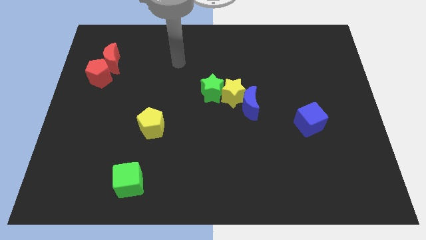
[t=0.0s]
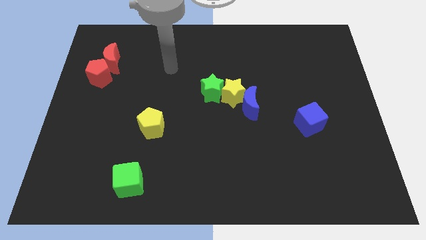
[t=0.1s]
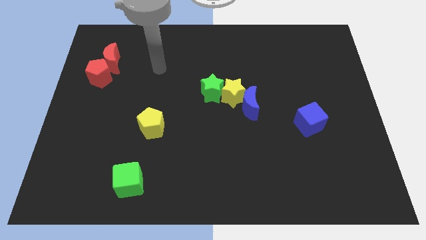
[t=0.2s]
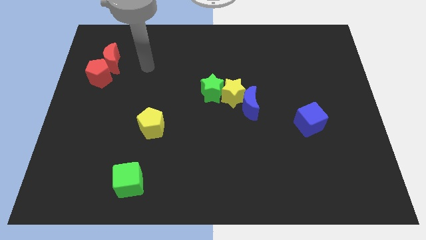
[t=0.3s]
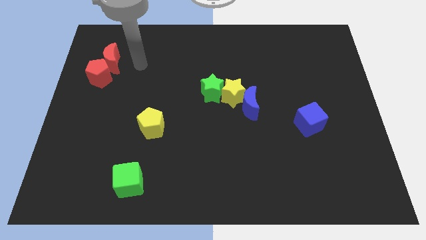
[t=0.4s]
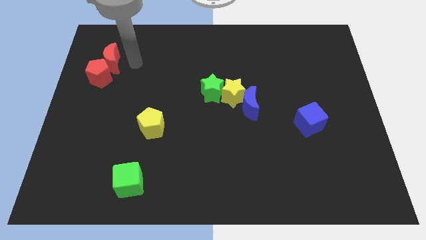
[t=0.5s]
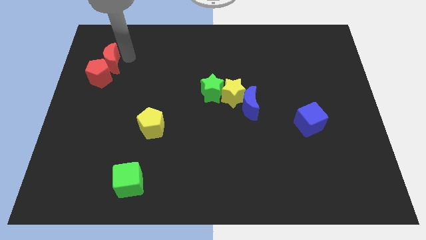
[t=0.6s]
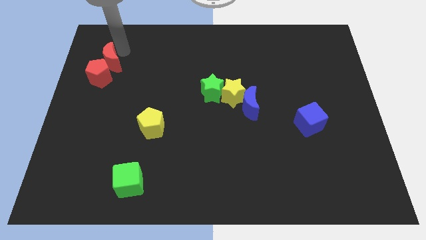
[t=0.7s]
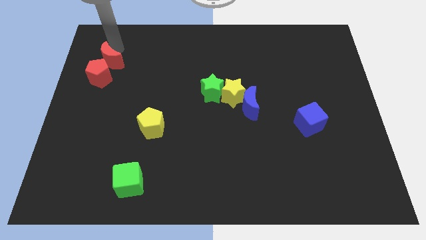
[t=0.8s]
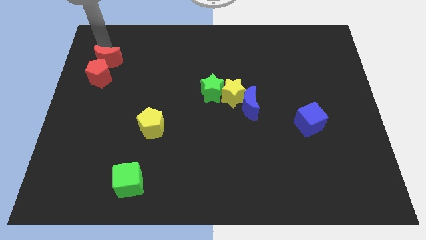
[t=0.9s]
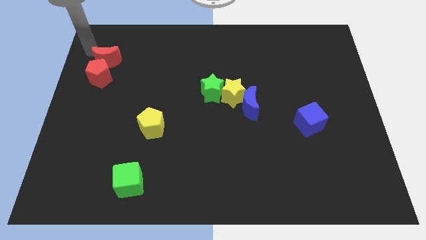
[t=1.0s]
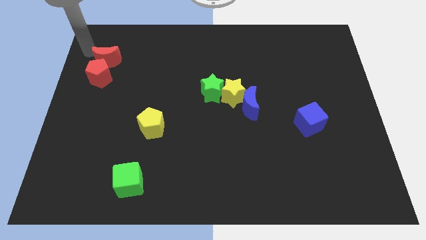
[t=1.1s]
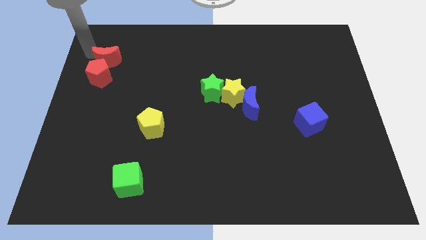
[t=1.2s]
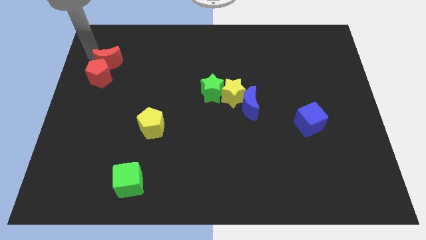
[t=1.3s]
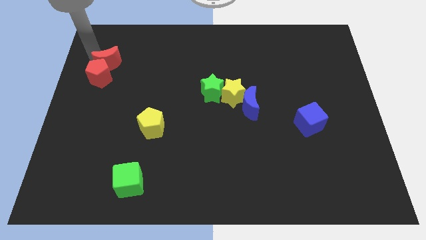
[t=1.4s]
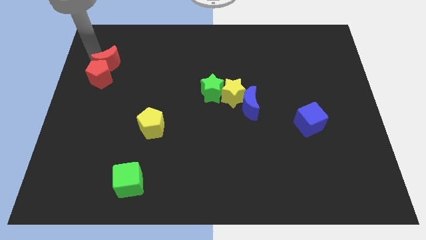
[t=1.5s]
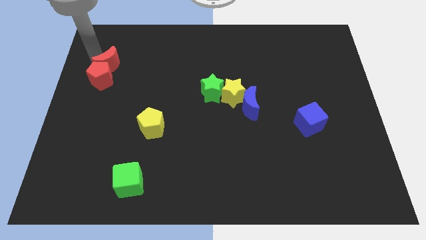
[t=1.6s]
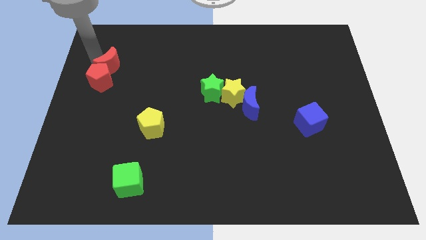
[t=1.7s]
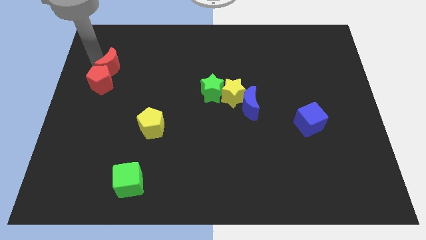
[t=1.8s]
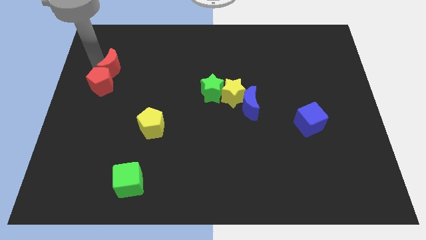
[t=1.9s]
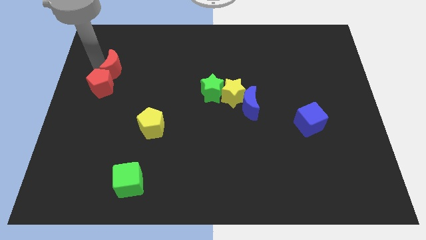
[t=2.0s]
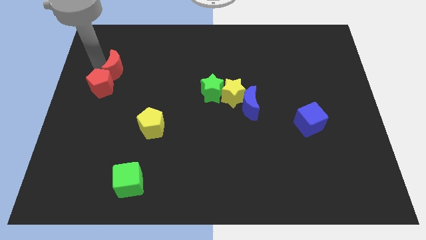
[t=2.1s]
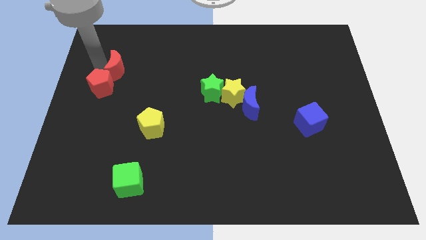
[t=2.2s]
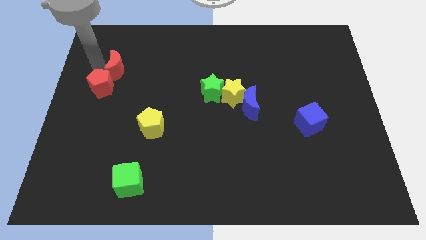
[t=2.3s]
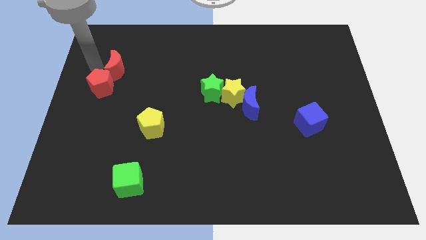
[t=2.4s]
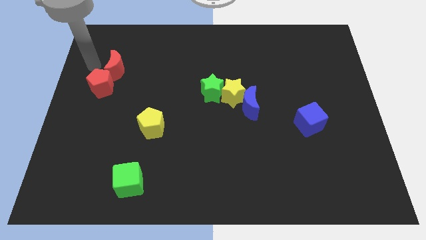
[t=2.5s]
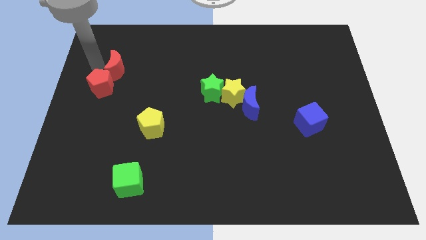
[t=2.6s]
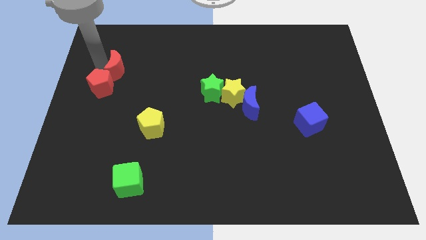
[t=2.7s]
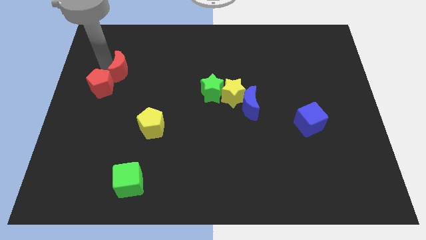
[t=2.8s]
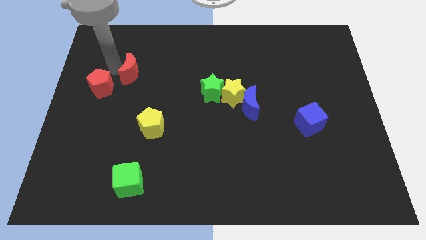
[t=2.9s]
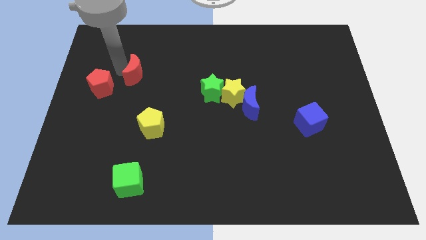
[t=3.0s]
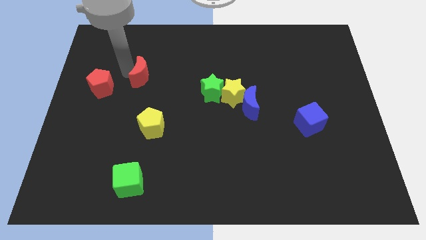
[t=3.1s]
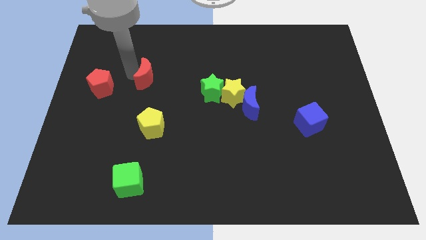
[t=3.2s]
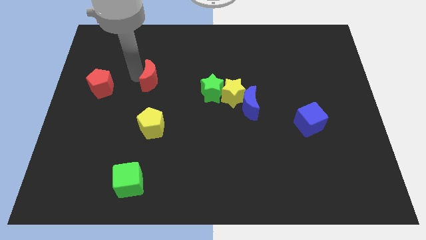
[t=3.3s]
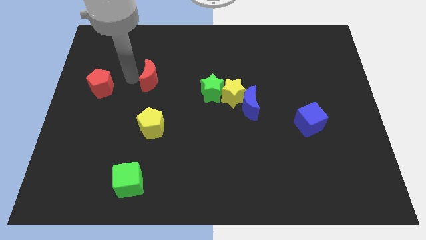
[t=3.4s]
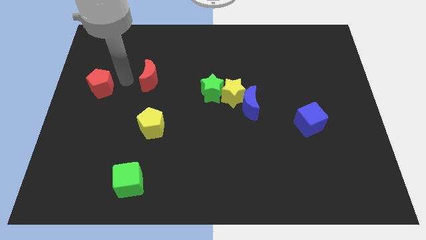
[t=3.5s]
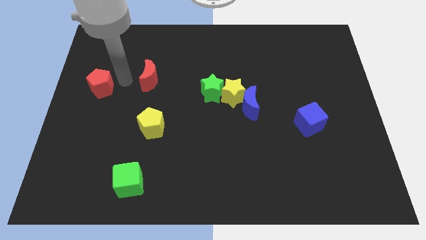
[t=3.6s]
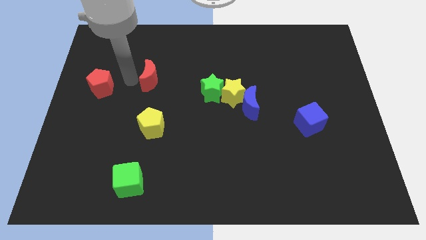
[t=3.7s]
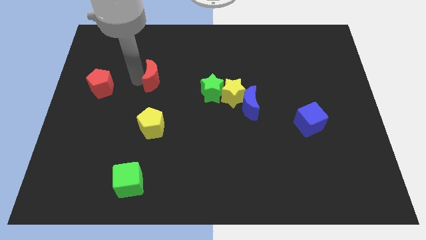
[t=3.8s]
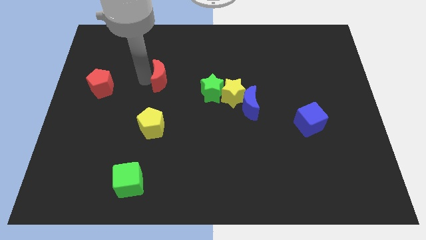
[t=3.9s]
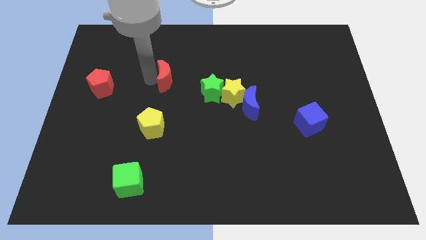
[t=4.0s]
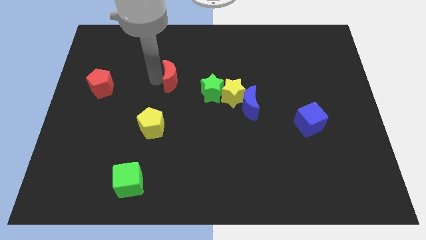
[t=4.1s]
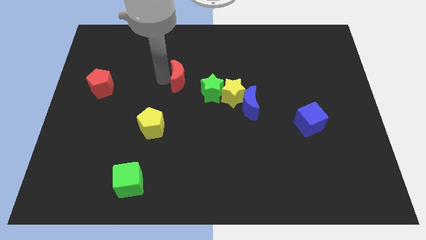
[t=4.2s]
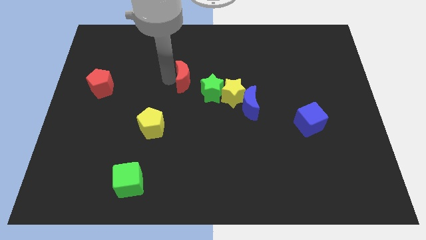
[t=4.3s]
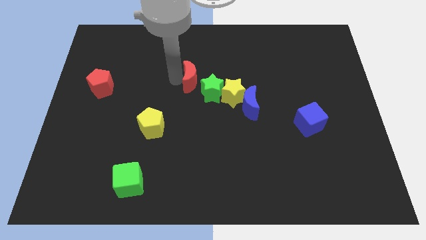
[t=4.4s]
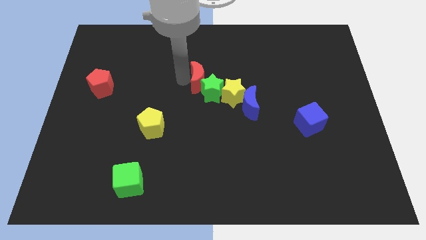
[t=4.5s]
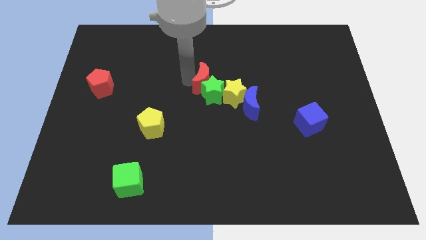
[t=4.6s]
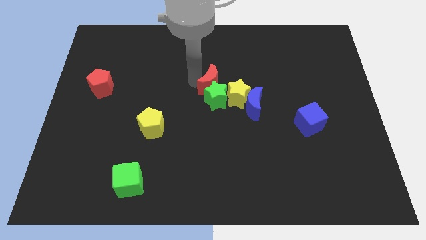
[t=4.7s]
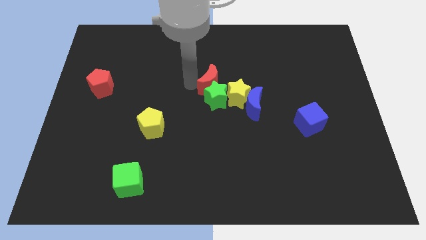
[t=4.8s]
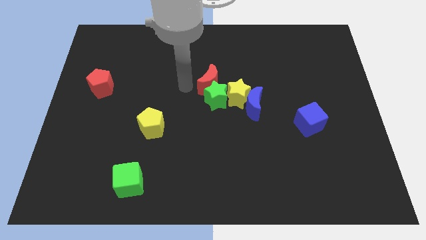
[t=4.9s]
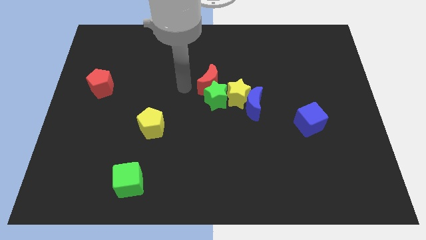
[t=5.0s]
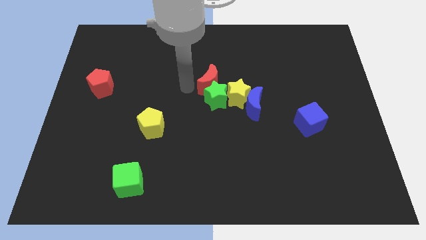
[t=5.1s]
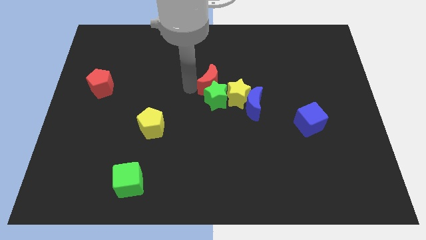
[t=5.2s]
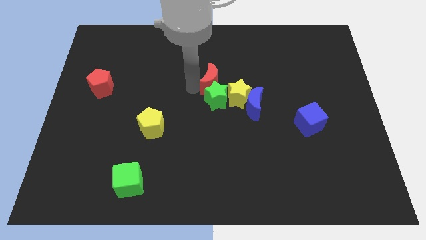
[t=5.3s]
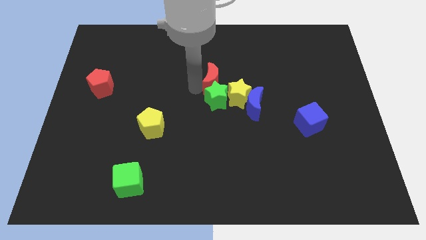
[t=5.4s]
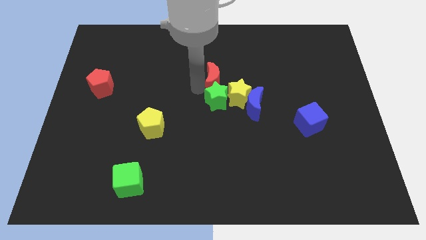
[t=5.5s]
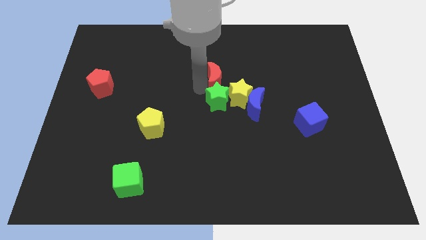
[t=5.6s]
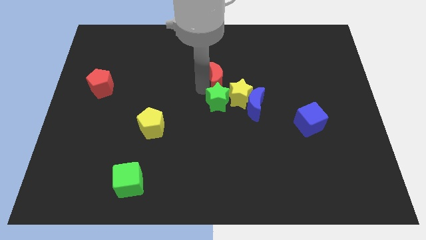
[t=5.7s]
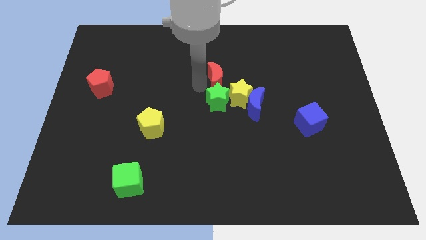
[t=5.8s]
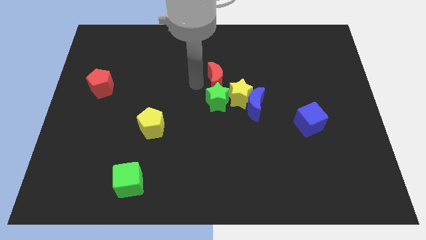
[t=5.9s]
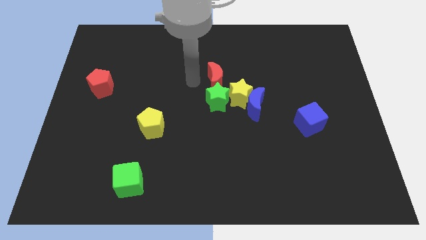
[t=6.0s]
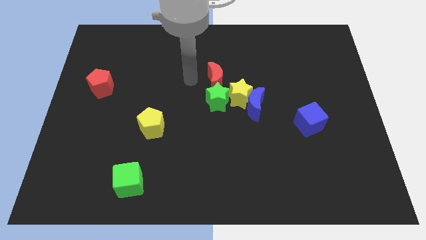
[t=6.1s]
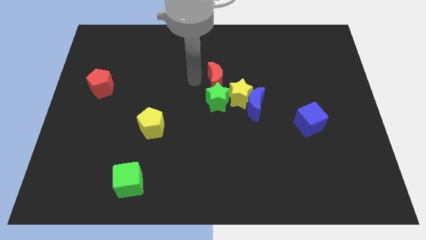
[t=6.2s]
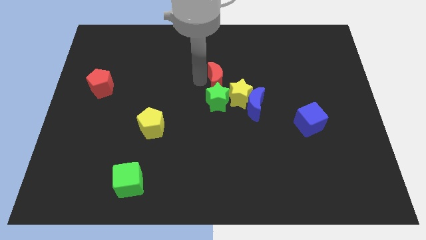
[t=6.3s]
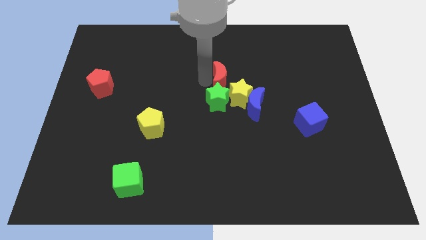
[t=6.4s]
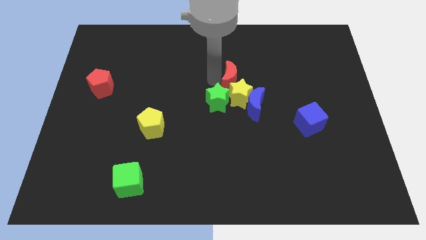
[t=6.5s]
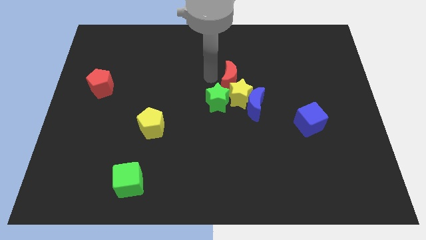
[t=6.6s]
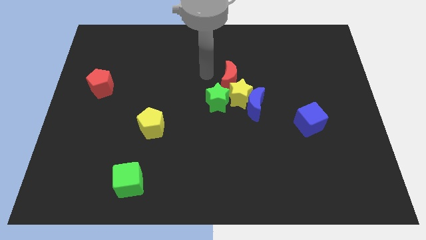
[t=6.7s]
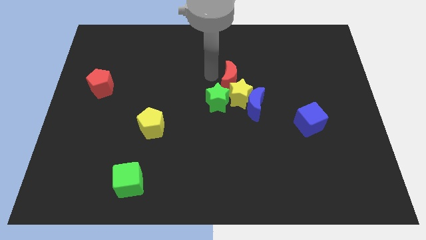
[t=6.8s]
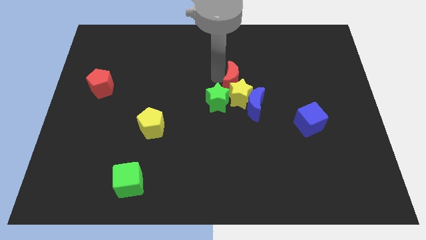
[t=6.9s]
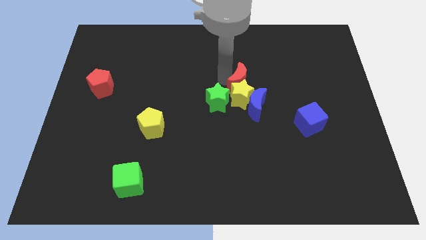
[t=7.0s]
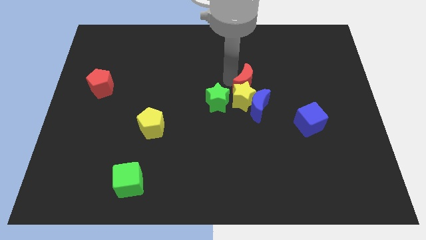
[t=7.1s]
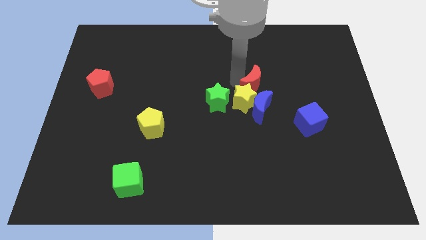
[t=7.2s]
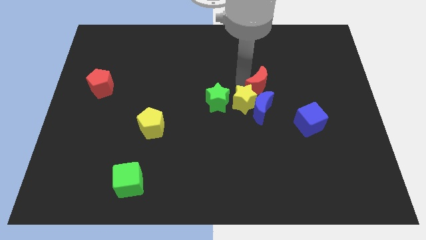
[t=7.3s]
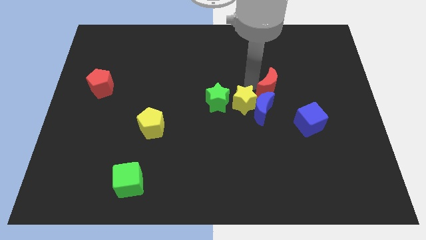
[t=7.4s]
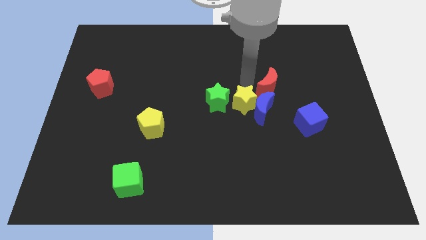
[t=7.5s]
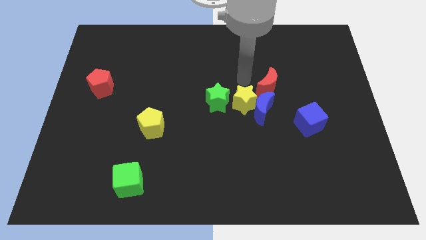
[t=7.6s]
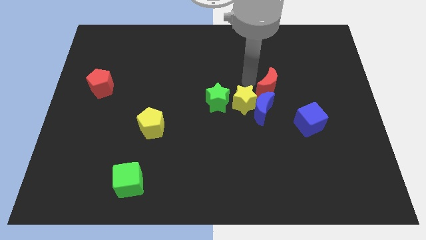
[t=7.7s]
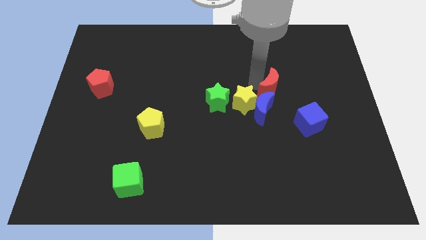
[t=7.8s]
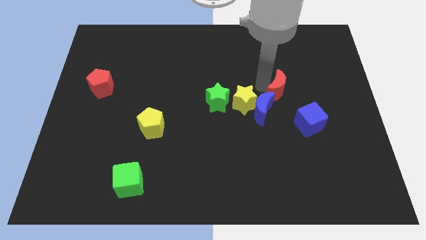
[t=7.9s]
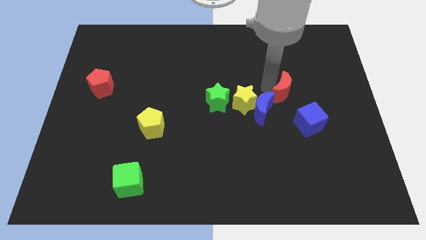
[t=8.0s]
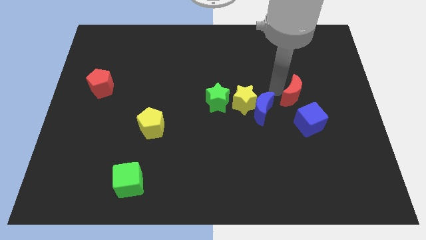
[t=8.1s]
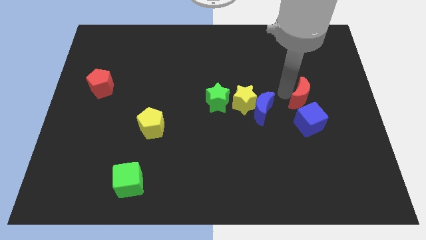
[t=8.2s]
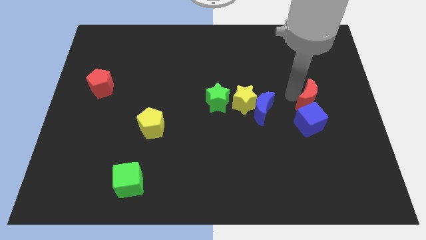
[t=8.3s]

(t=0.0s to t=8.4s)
slide the red moon diagonally up and to the right of the blue cube
